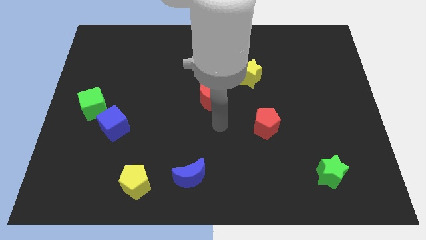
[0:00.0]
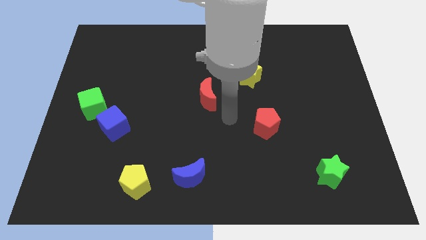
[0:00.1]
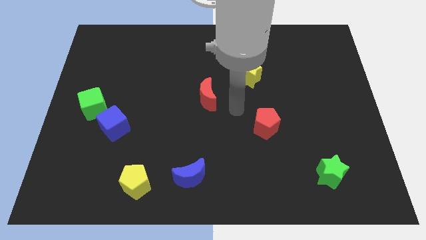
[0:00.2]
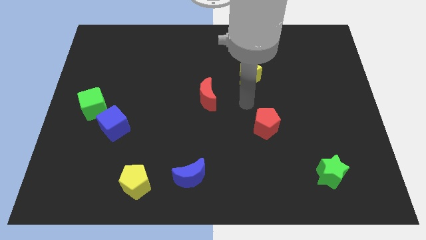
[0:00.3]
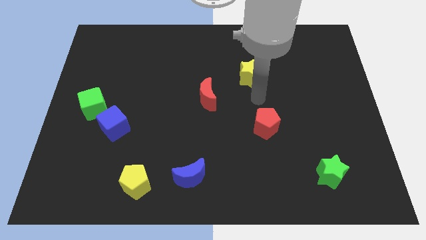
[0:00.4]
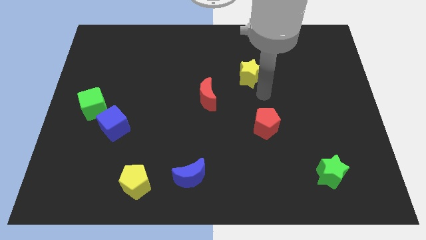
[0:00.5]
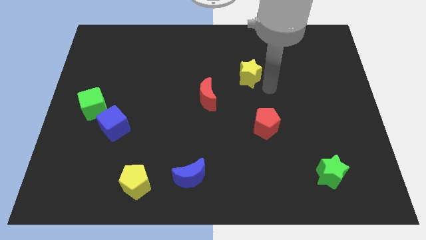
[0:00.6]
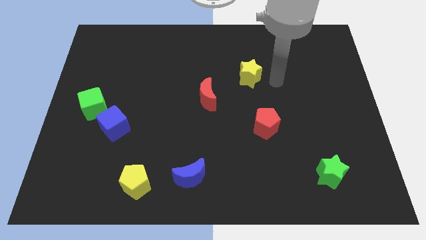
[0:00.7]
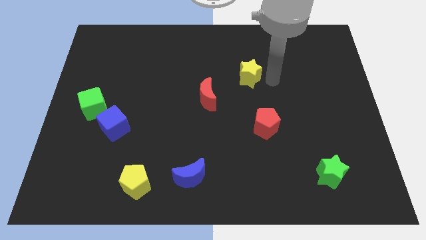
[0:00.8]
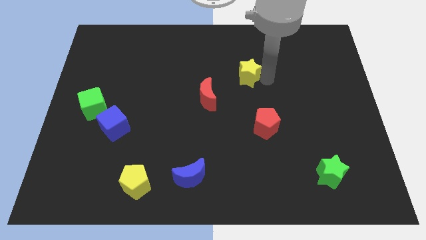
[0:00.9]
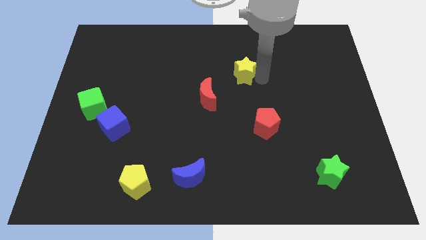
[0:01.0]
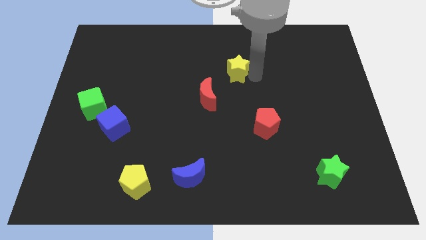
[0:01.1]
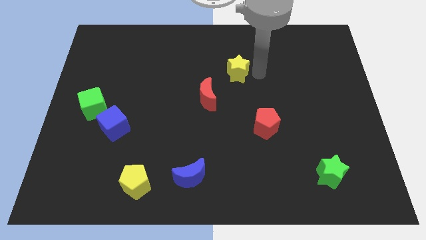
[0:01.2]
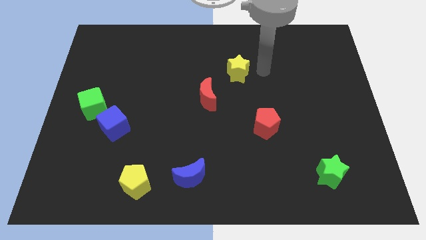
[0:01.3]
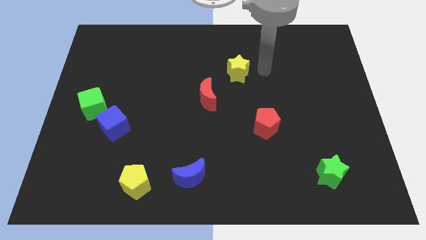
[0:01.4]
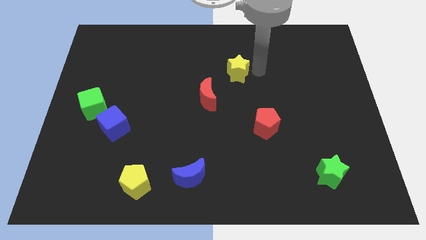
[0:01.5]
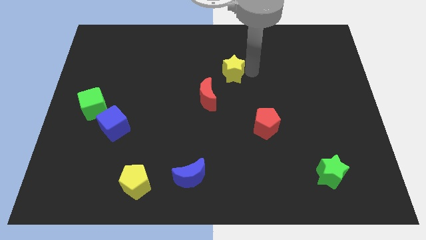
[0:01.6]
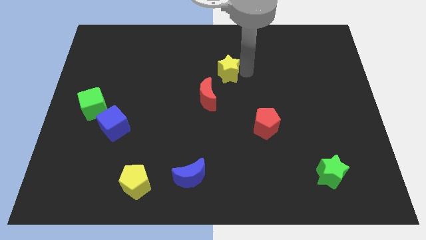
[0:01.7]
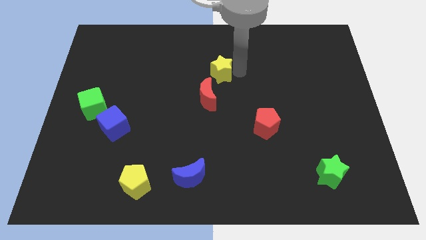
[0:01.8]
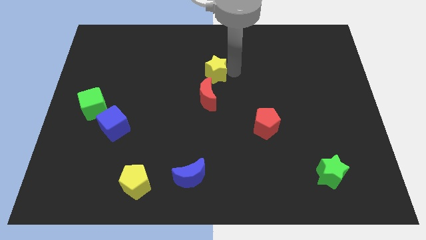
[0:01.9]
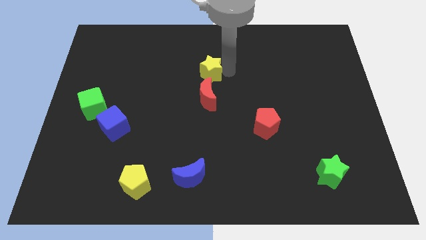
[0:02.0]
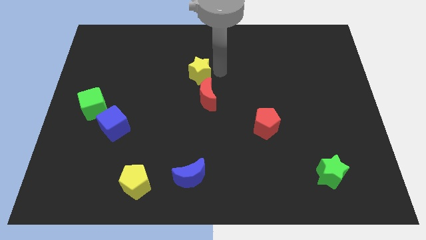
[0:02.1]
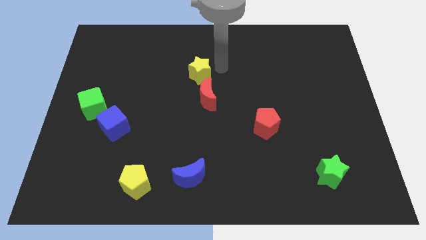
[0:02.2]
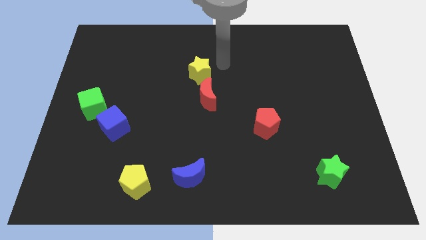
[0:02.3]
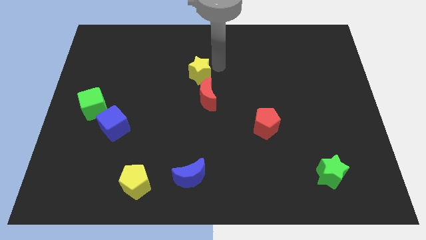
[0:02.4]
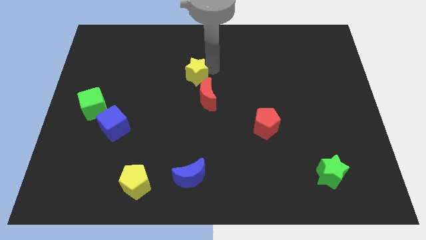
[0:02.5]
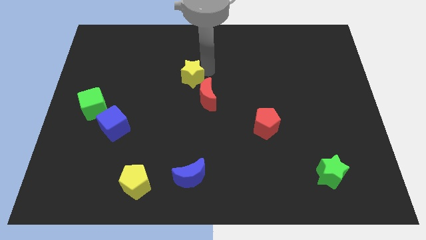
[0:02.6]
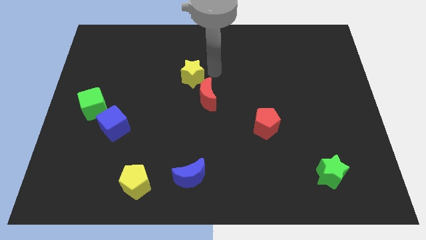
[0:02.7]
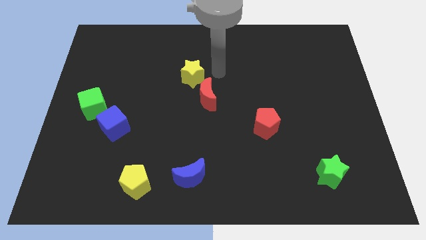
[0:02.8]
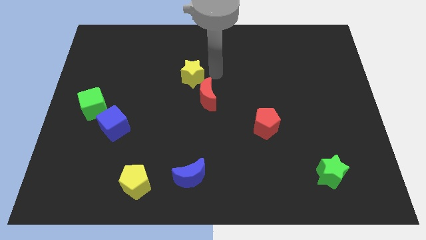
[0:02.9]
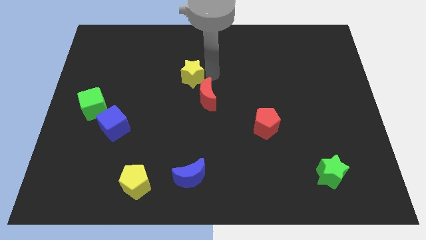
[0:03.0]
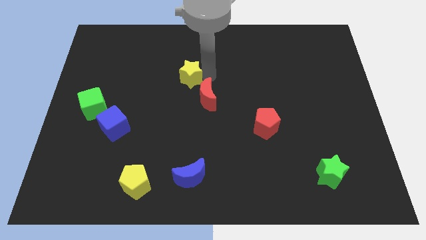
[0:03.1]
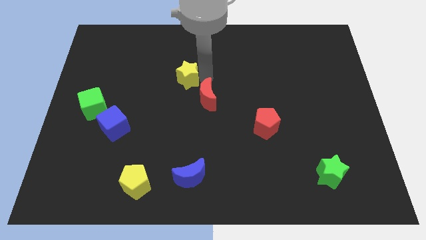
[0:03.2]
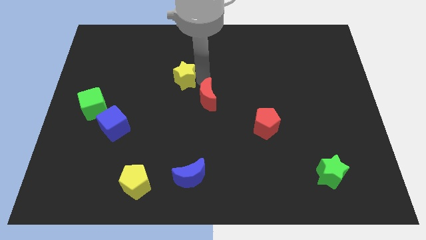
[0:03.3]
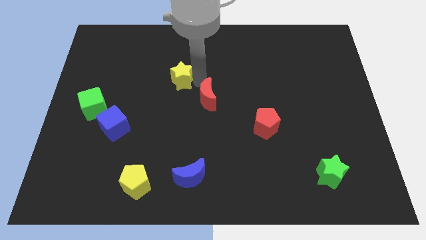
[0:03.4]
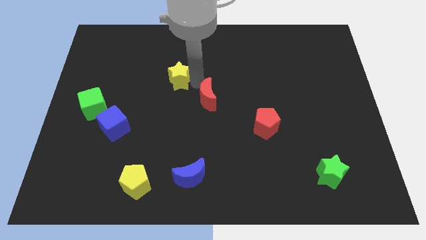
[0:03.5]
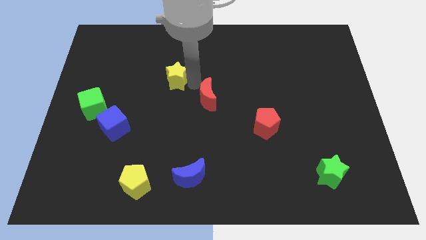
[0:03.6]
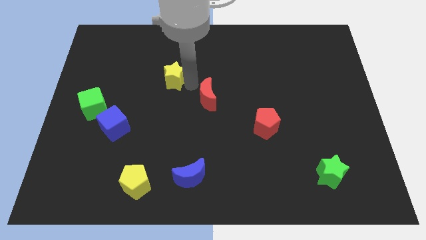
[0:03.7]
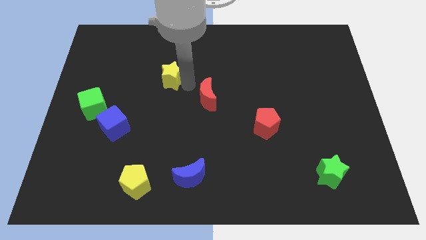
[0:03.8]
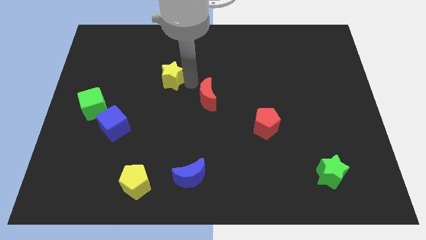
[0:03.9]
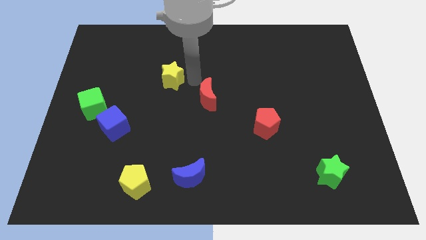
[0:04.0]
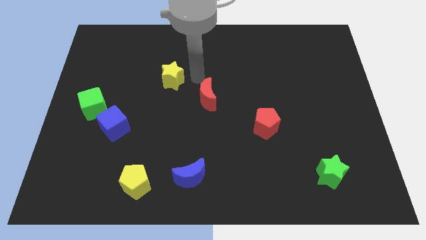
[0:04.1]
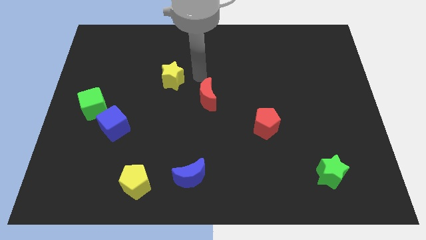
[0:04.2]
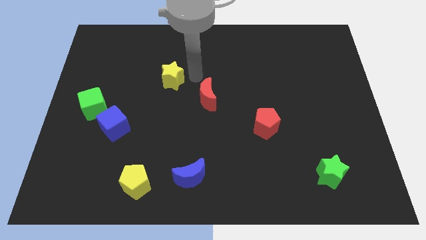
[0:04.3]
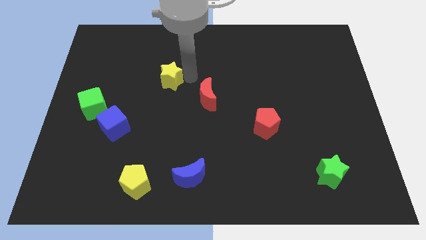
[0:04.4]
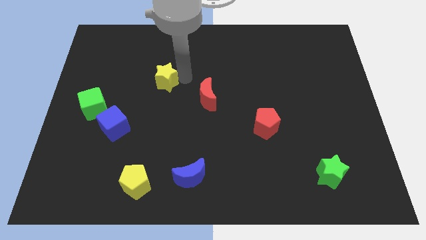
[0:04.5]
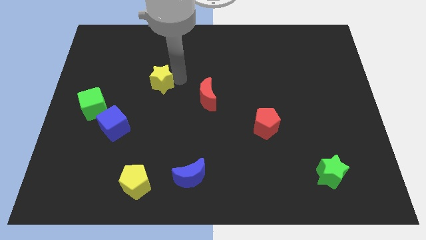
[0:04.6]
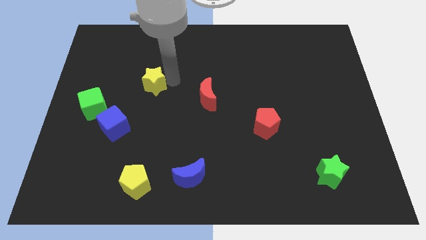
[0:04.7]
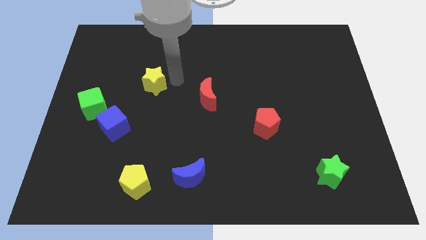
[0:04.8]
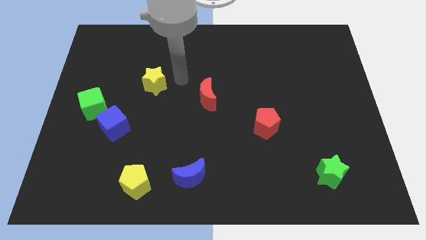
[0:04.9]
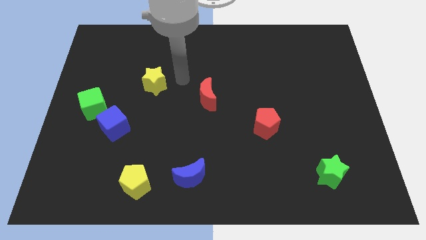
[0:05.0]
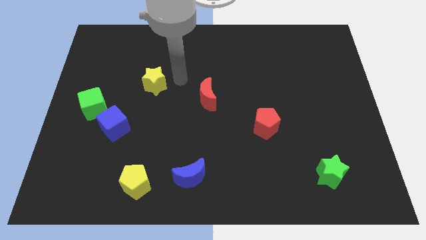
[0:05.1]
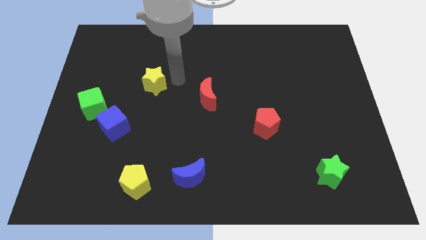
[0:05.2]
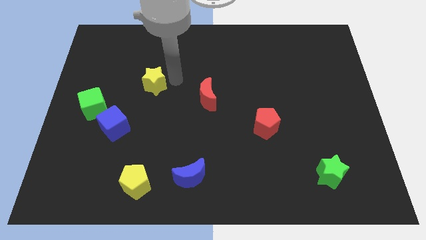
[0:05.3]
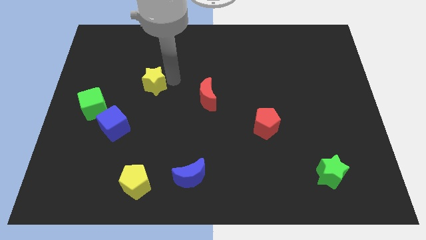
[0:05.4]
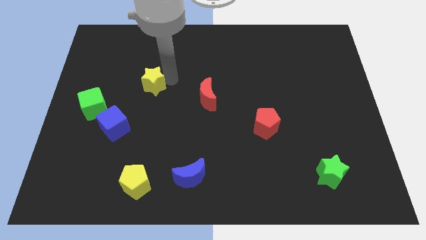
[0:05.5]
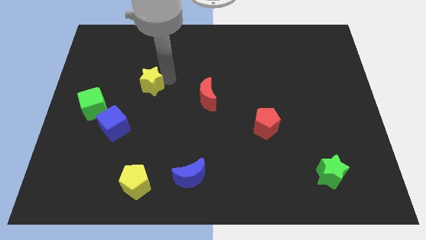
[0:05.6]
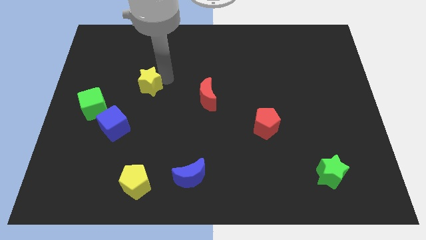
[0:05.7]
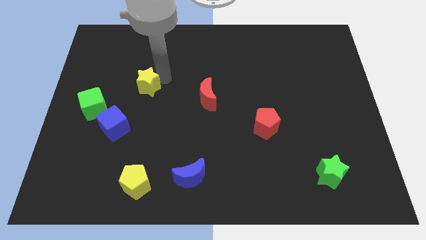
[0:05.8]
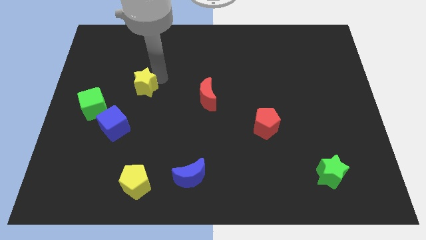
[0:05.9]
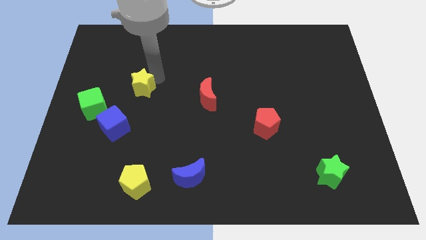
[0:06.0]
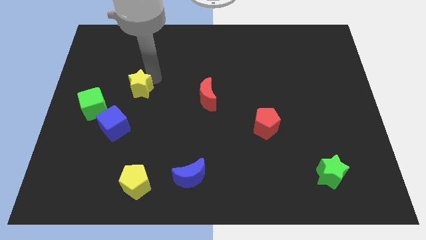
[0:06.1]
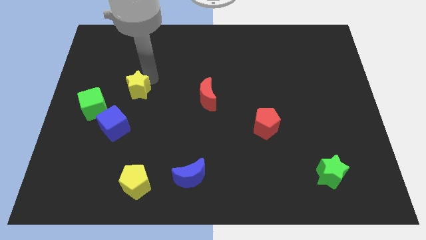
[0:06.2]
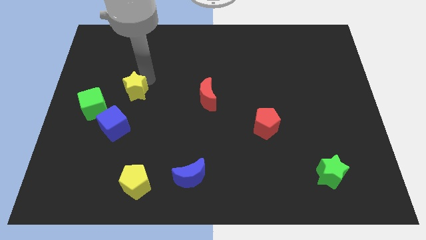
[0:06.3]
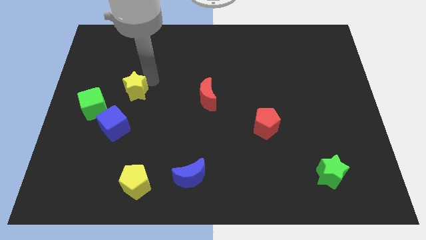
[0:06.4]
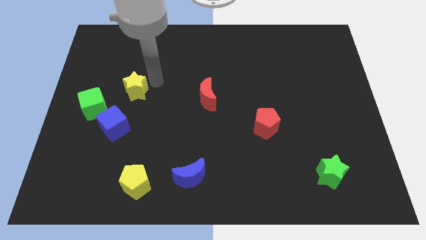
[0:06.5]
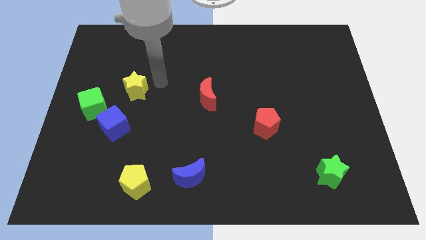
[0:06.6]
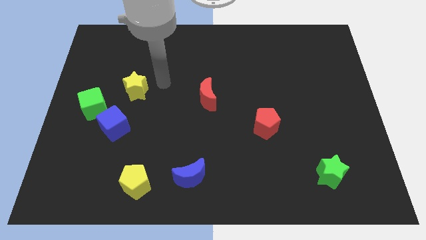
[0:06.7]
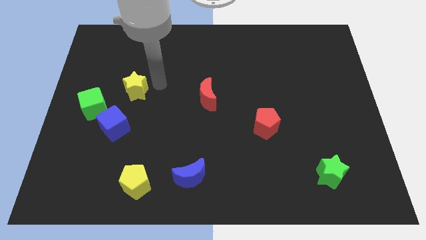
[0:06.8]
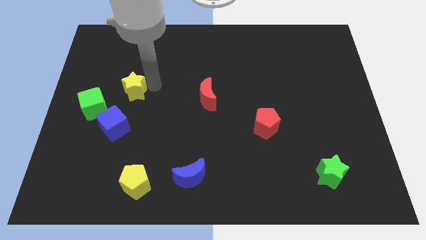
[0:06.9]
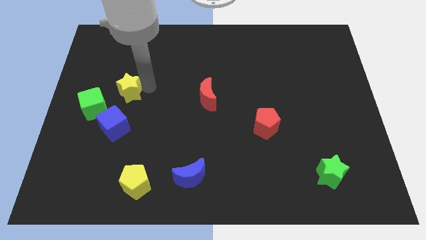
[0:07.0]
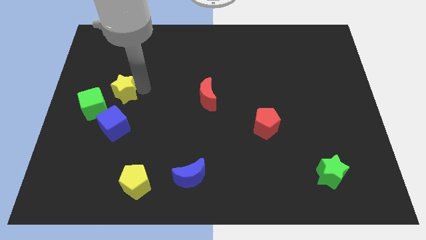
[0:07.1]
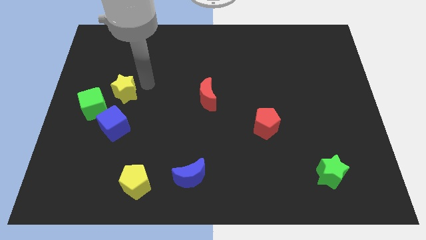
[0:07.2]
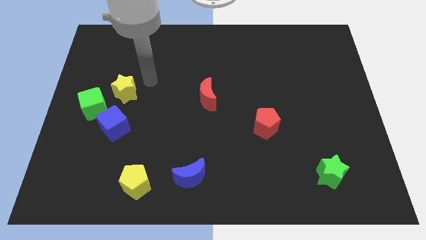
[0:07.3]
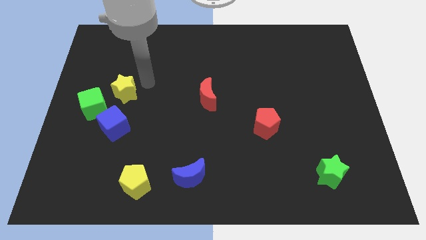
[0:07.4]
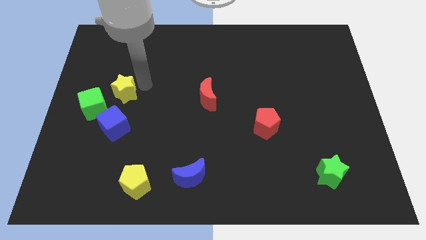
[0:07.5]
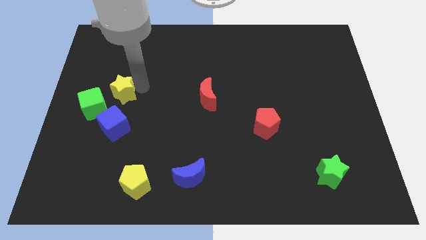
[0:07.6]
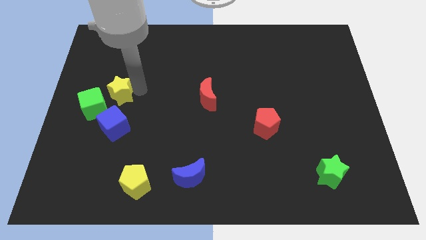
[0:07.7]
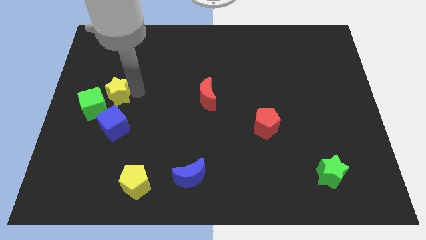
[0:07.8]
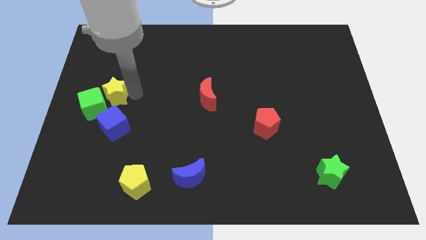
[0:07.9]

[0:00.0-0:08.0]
put the yellow star next to the green cube
